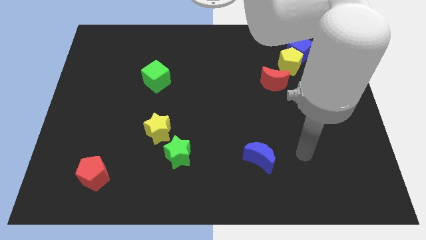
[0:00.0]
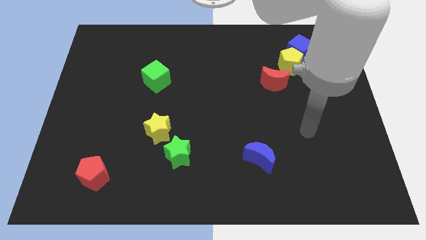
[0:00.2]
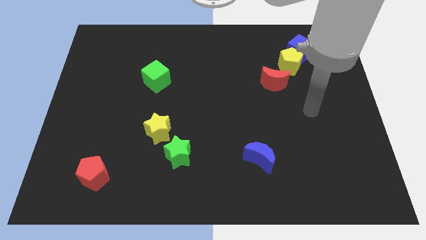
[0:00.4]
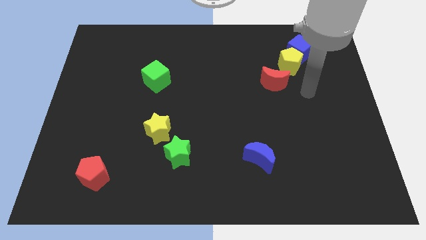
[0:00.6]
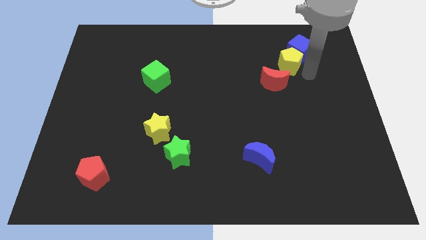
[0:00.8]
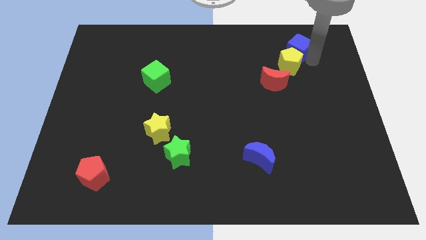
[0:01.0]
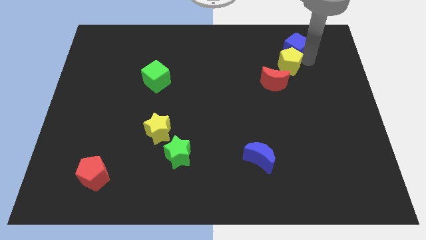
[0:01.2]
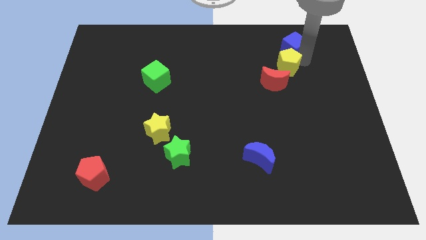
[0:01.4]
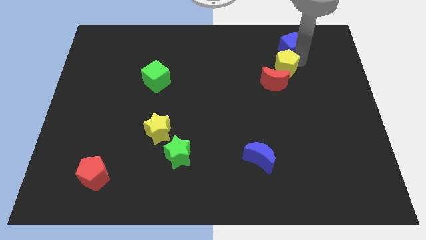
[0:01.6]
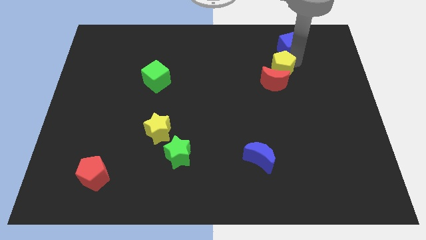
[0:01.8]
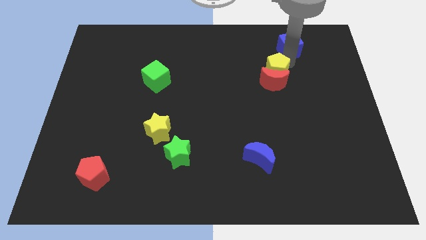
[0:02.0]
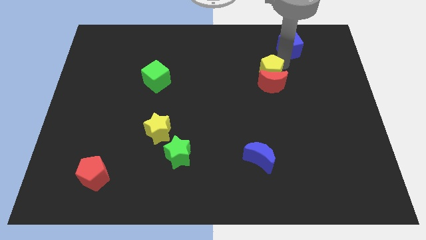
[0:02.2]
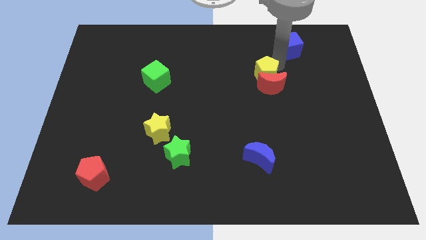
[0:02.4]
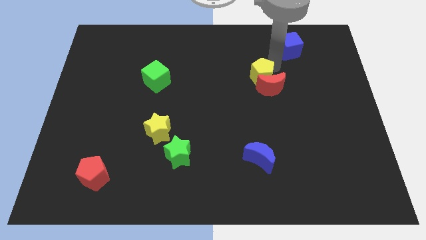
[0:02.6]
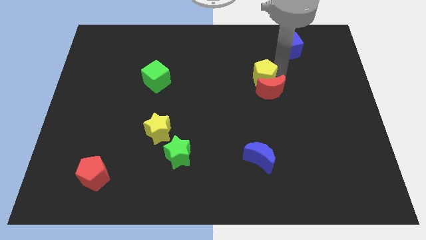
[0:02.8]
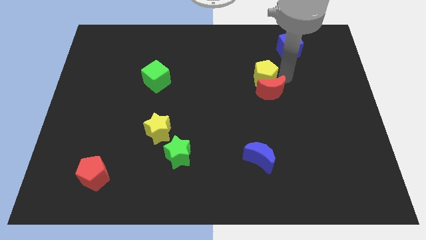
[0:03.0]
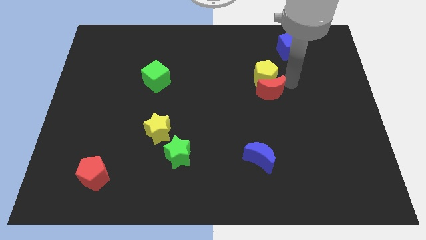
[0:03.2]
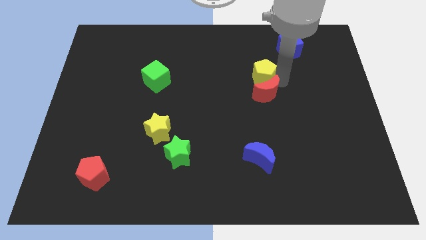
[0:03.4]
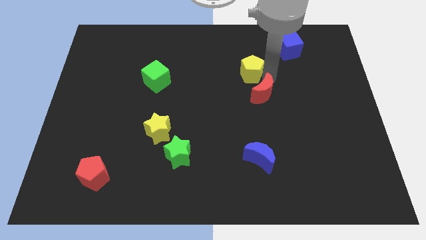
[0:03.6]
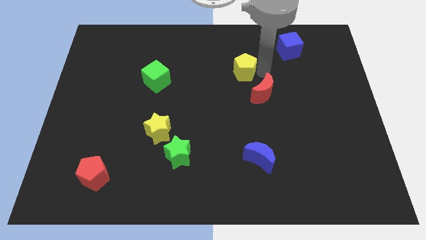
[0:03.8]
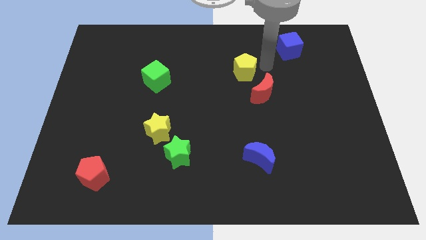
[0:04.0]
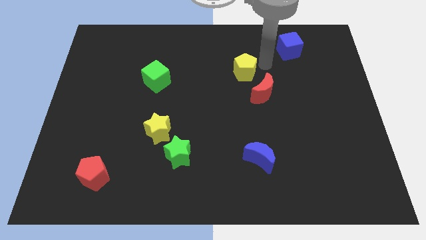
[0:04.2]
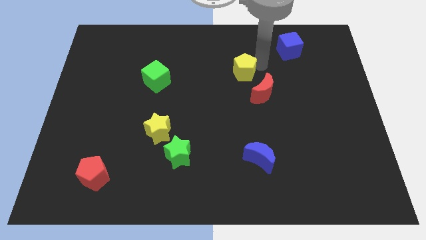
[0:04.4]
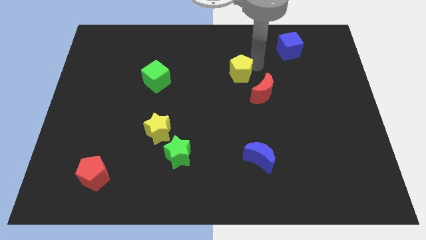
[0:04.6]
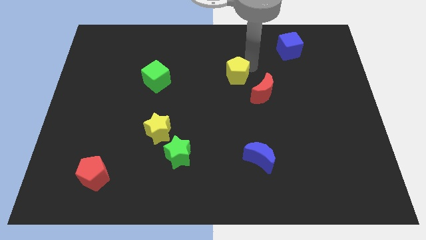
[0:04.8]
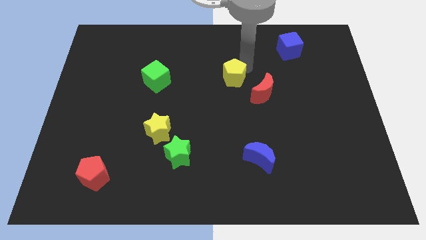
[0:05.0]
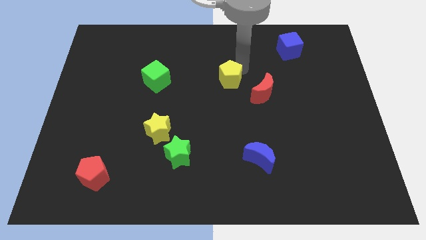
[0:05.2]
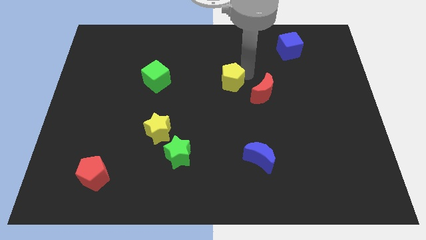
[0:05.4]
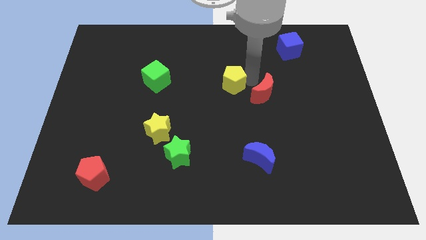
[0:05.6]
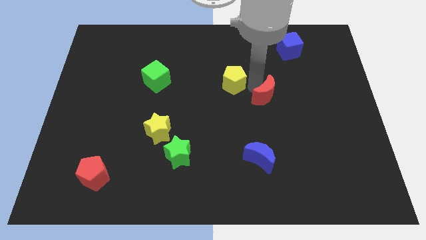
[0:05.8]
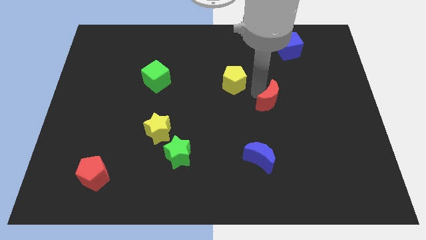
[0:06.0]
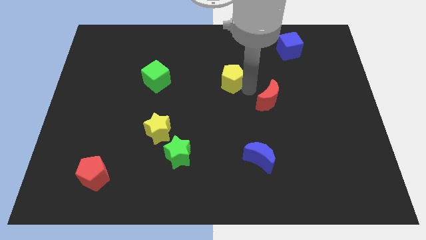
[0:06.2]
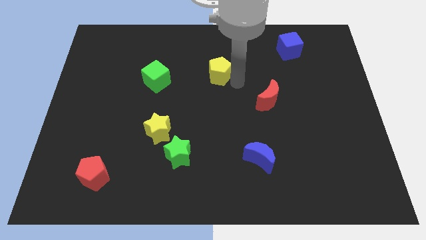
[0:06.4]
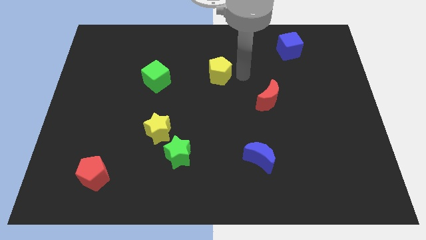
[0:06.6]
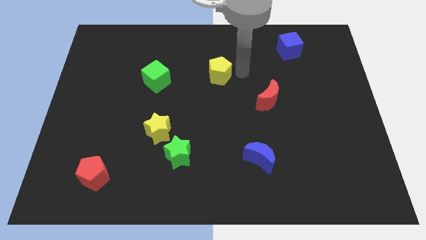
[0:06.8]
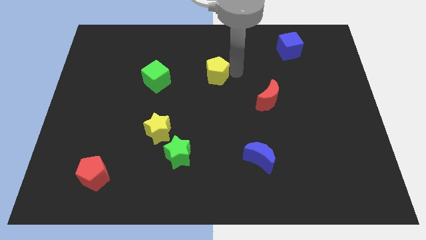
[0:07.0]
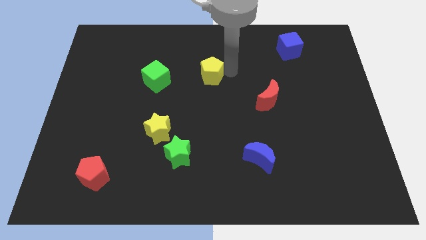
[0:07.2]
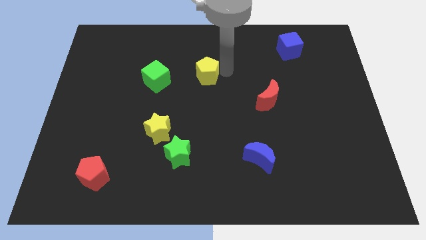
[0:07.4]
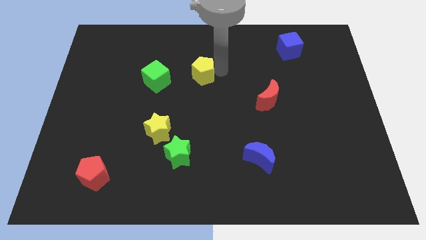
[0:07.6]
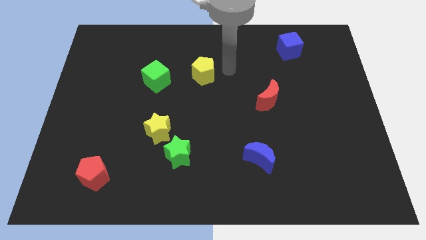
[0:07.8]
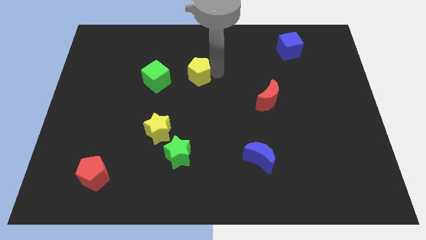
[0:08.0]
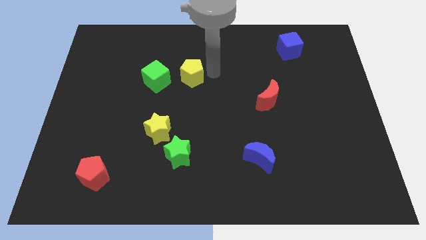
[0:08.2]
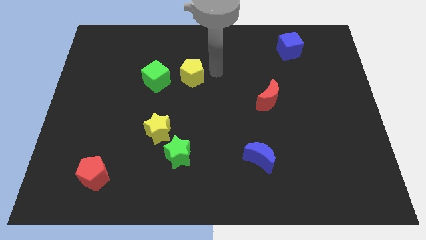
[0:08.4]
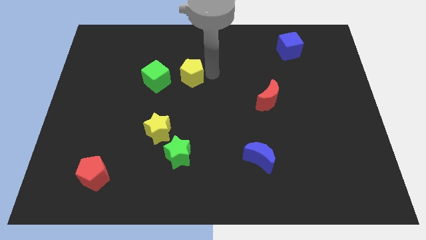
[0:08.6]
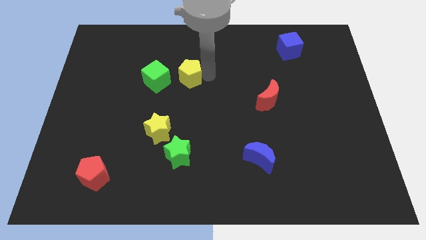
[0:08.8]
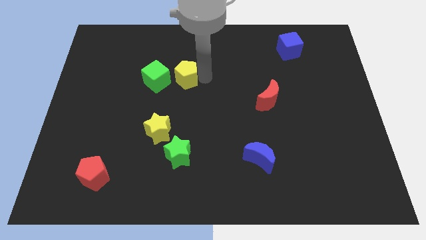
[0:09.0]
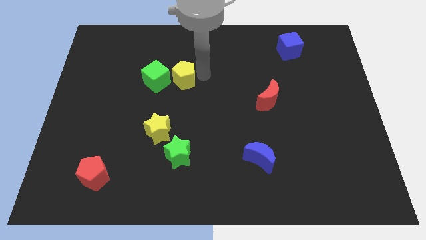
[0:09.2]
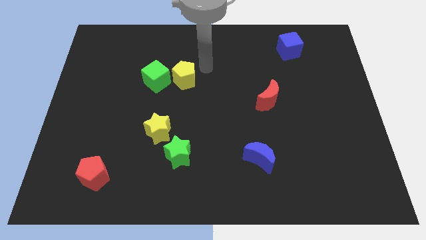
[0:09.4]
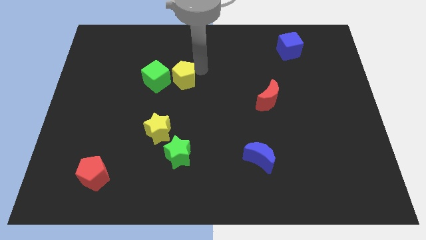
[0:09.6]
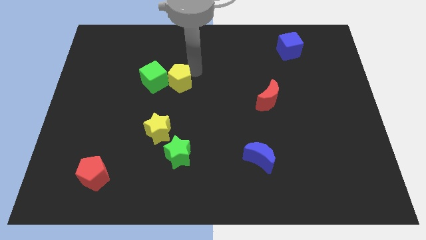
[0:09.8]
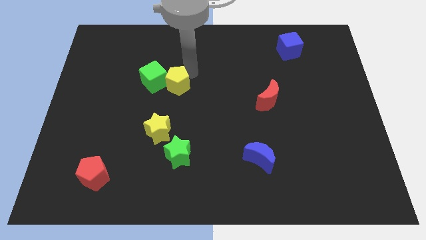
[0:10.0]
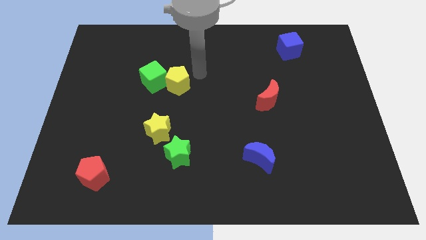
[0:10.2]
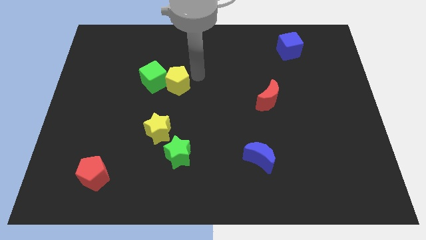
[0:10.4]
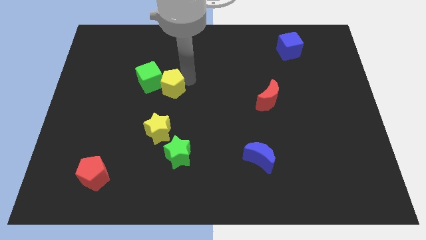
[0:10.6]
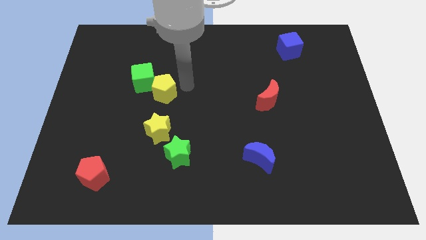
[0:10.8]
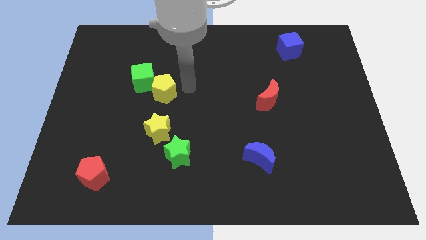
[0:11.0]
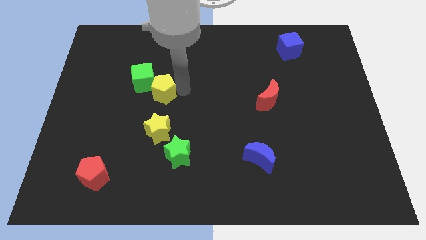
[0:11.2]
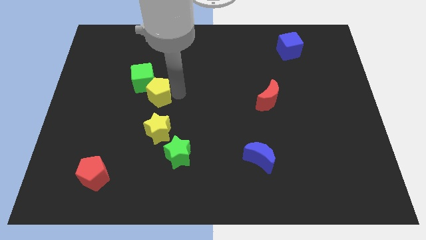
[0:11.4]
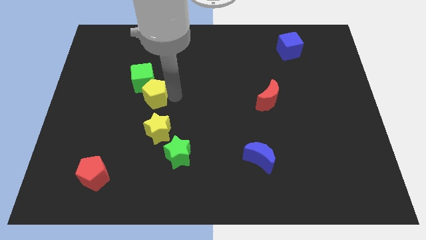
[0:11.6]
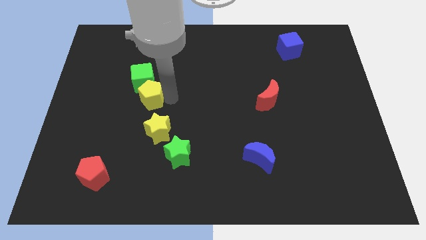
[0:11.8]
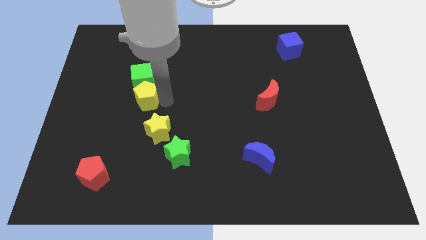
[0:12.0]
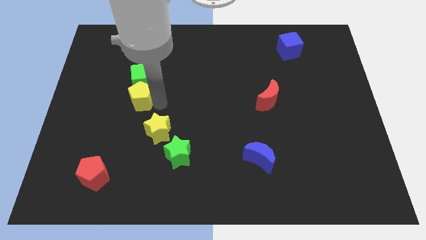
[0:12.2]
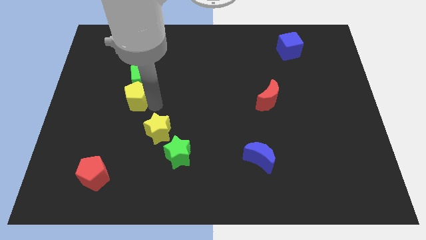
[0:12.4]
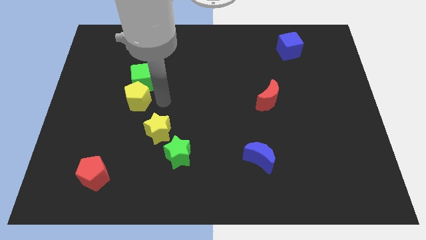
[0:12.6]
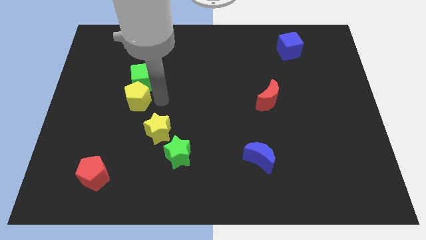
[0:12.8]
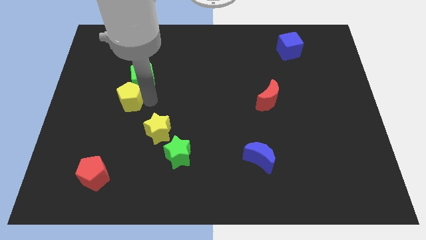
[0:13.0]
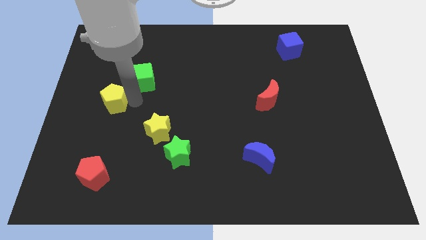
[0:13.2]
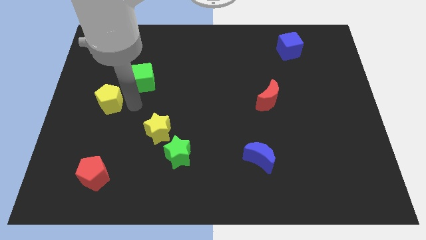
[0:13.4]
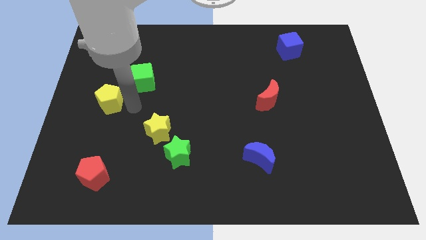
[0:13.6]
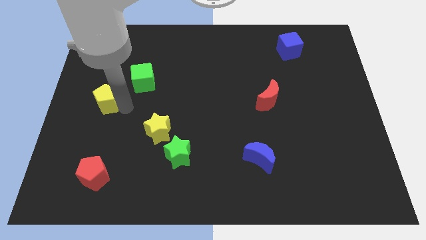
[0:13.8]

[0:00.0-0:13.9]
move the yellow pentagon to the left side of the board

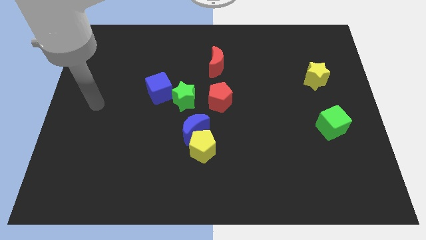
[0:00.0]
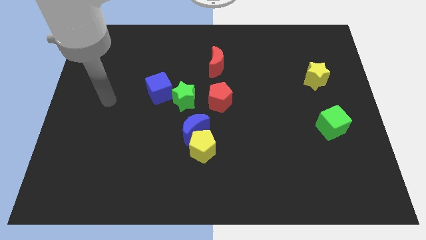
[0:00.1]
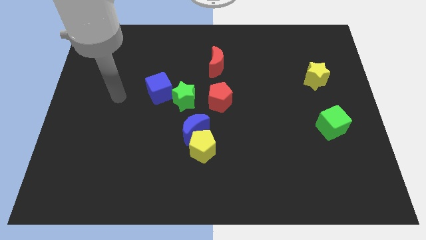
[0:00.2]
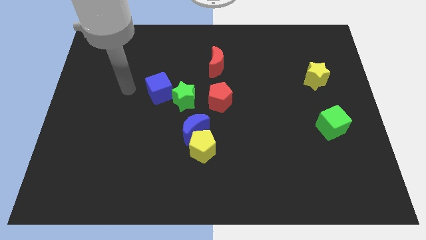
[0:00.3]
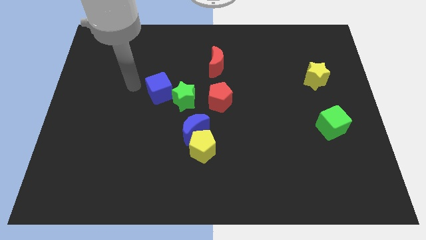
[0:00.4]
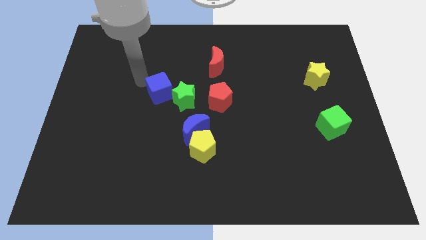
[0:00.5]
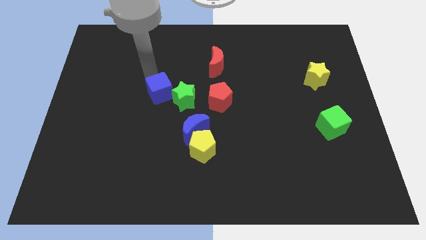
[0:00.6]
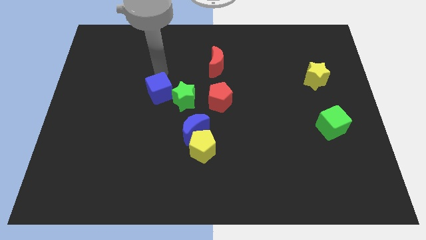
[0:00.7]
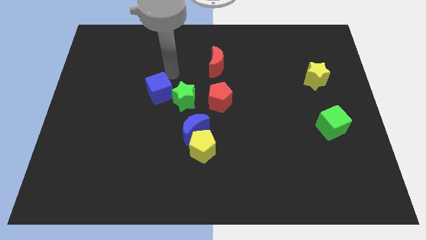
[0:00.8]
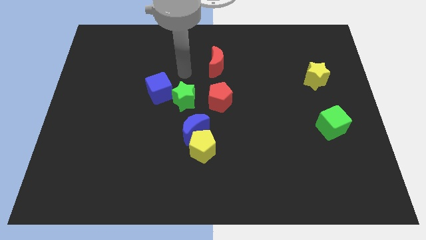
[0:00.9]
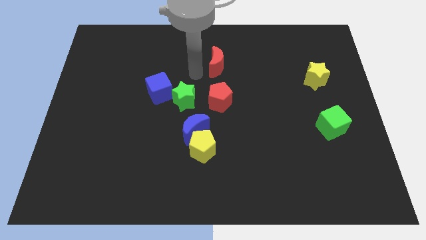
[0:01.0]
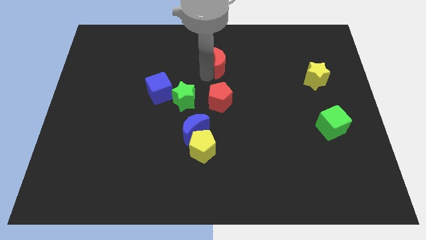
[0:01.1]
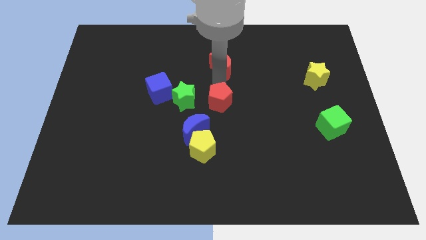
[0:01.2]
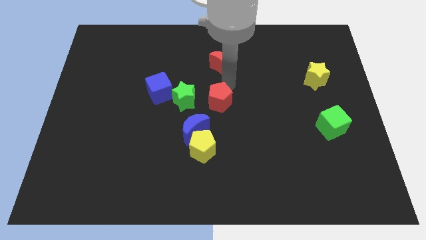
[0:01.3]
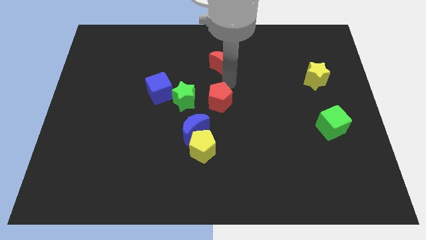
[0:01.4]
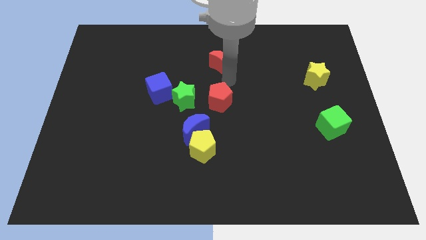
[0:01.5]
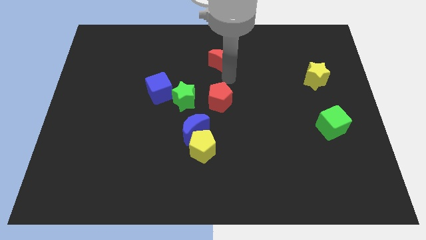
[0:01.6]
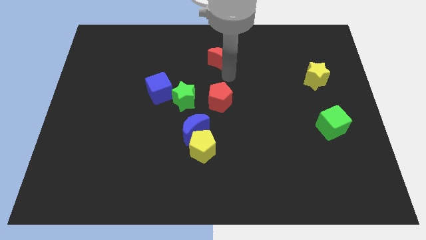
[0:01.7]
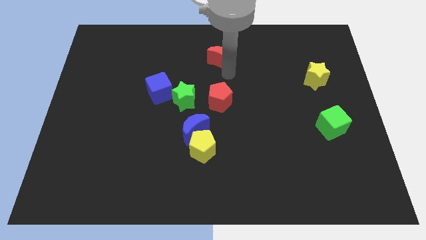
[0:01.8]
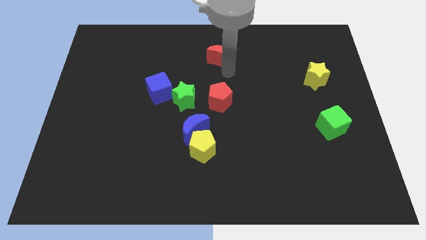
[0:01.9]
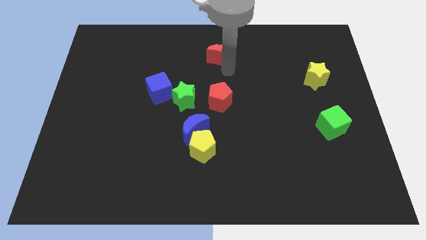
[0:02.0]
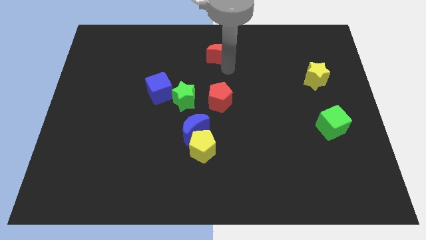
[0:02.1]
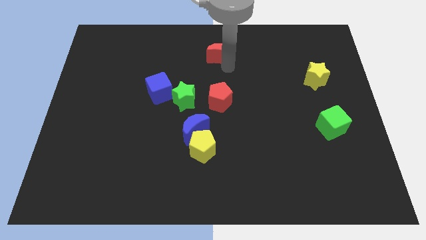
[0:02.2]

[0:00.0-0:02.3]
push the red moon to the top
